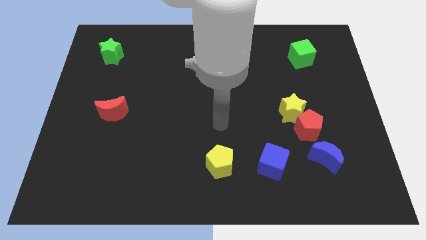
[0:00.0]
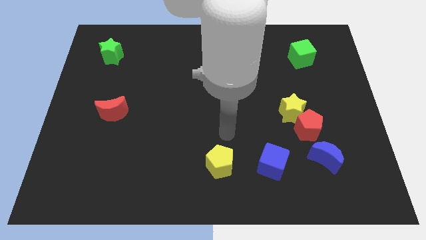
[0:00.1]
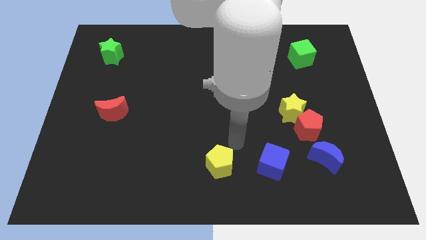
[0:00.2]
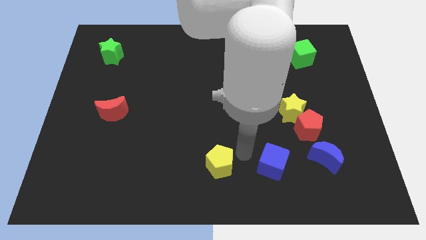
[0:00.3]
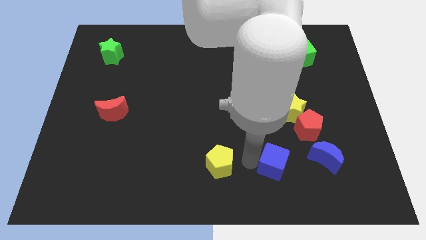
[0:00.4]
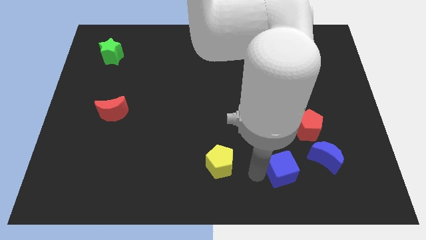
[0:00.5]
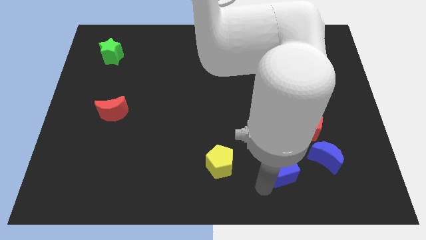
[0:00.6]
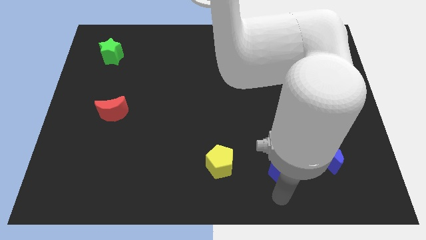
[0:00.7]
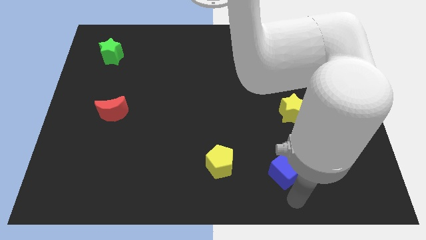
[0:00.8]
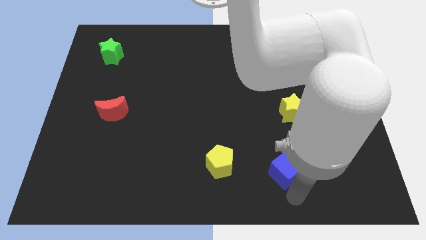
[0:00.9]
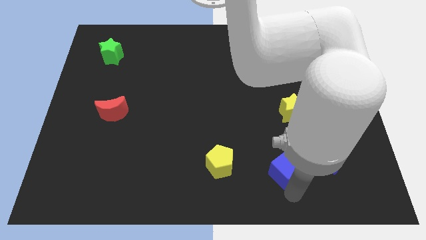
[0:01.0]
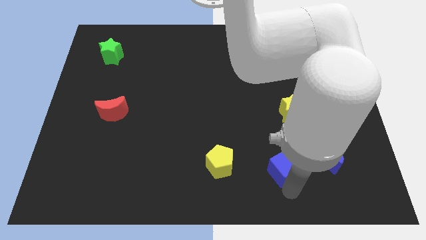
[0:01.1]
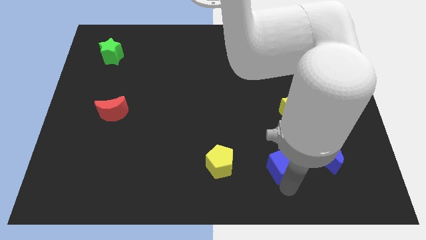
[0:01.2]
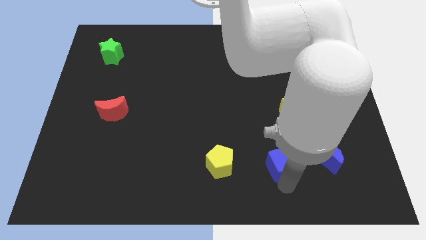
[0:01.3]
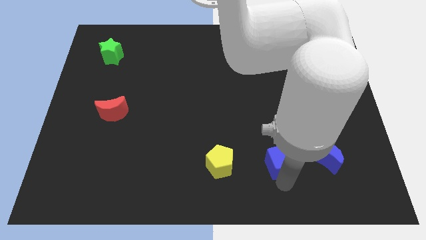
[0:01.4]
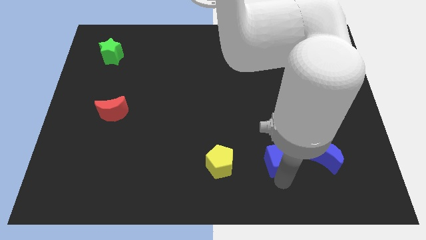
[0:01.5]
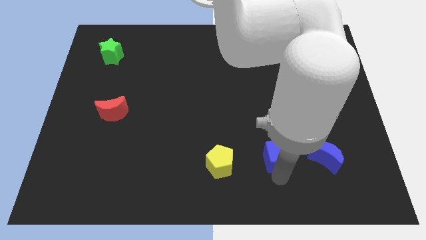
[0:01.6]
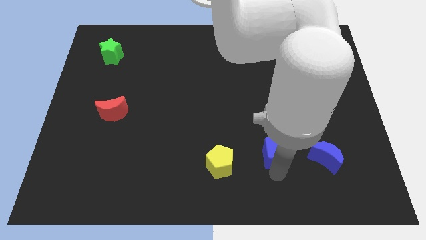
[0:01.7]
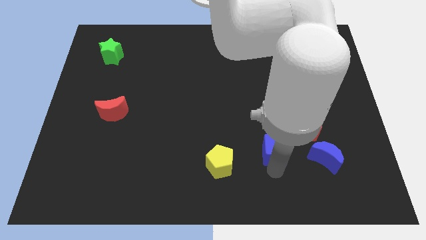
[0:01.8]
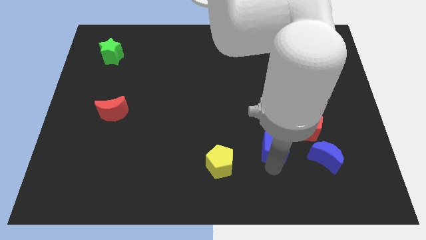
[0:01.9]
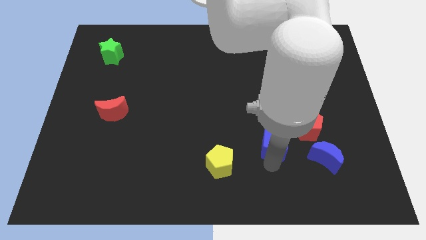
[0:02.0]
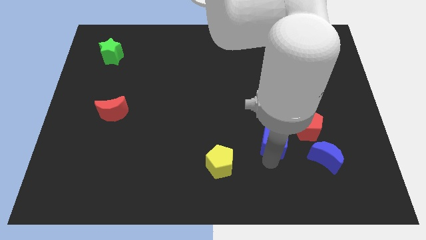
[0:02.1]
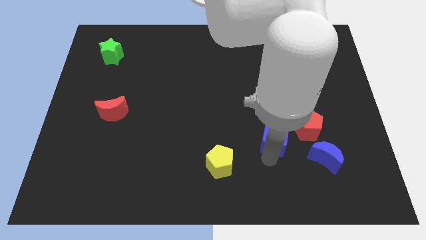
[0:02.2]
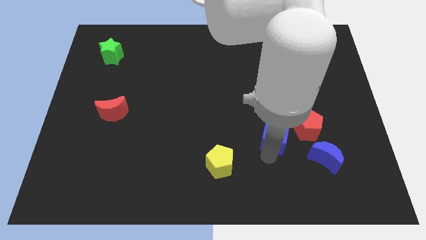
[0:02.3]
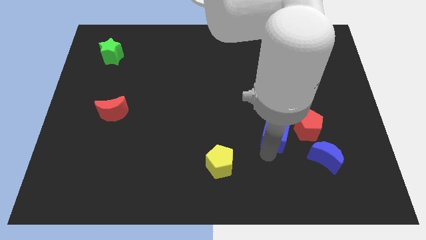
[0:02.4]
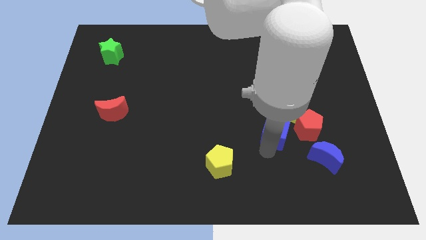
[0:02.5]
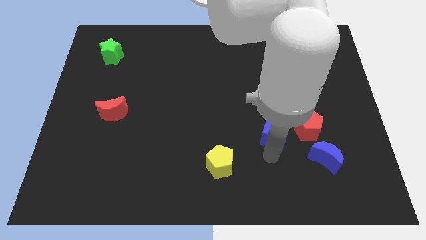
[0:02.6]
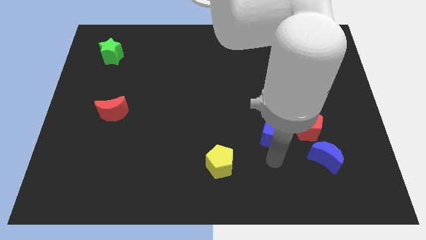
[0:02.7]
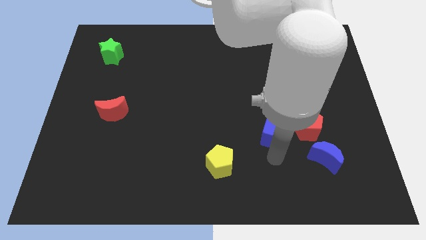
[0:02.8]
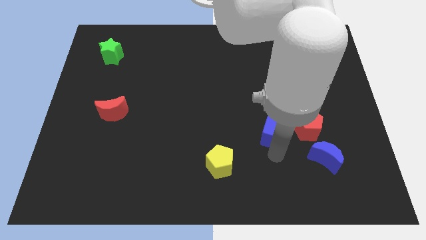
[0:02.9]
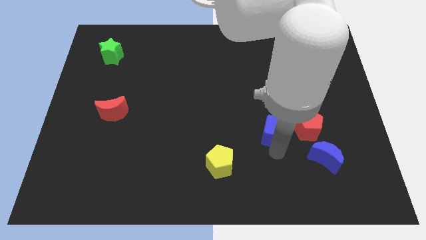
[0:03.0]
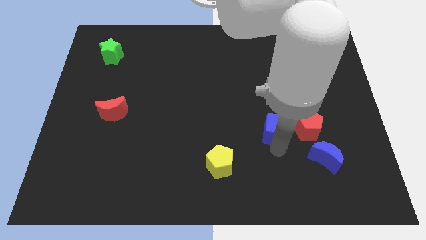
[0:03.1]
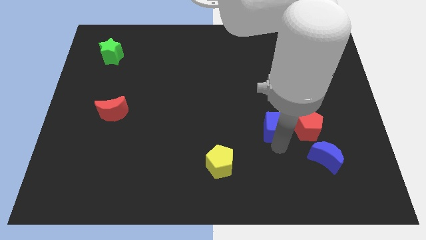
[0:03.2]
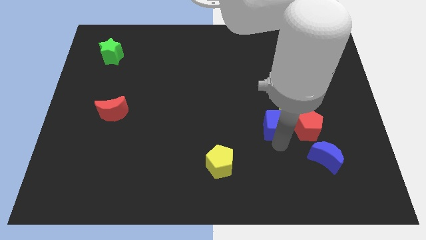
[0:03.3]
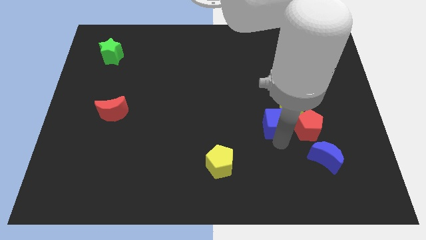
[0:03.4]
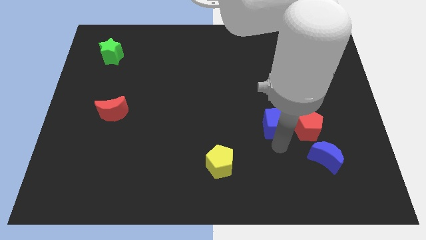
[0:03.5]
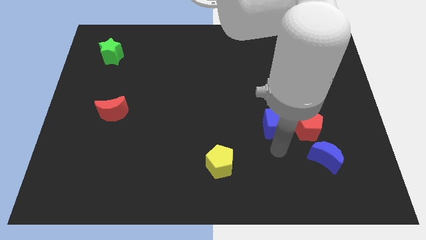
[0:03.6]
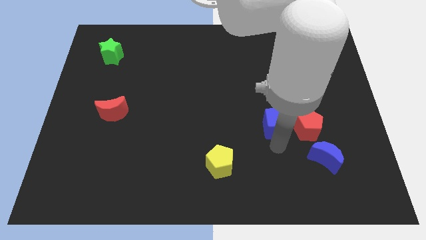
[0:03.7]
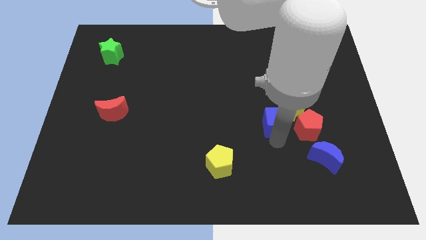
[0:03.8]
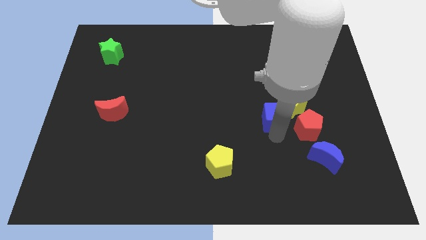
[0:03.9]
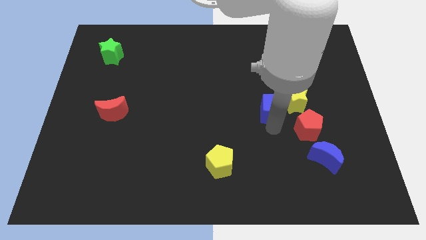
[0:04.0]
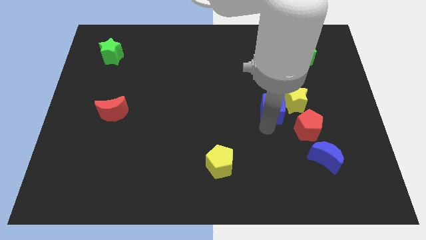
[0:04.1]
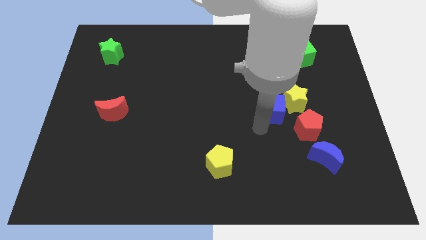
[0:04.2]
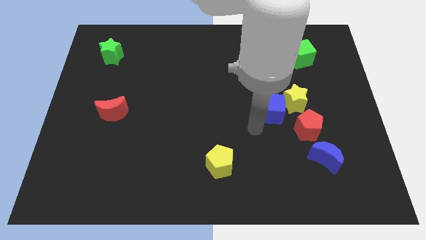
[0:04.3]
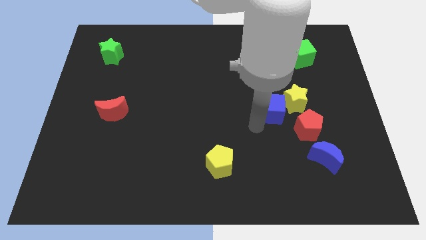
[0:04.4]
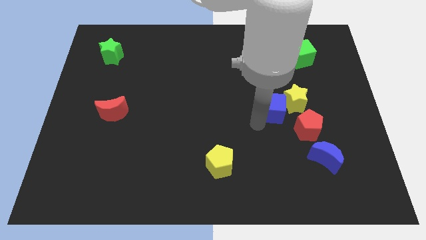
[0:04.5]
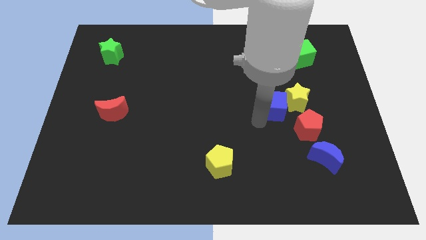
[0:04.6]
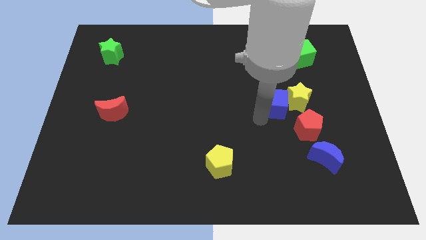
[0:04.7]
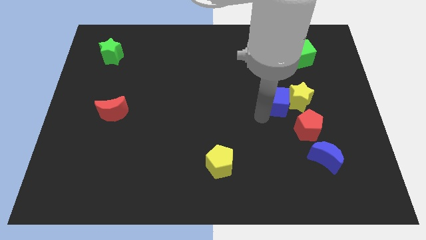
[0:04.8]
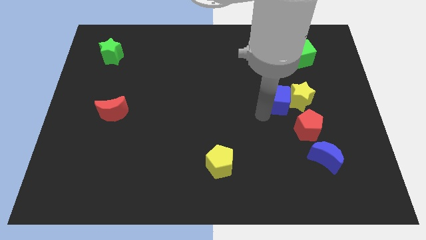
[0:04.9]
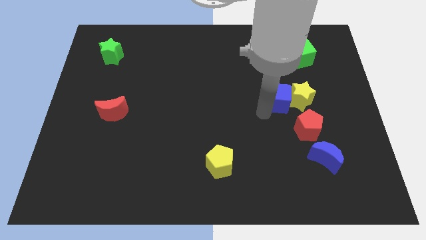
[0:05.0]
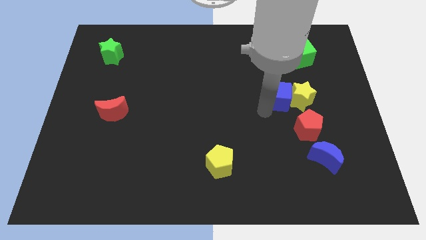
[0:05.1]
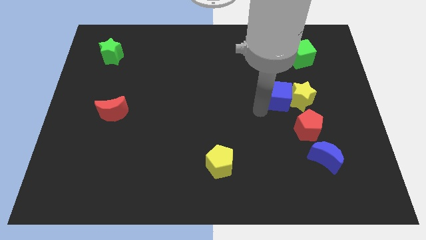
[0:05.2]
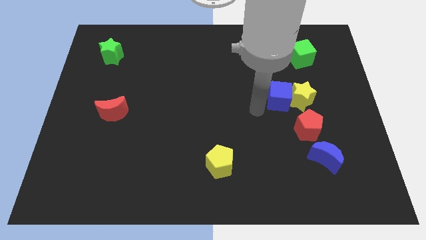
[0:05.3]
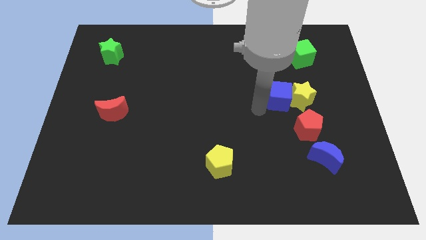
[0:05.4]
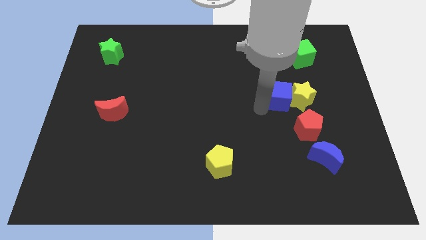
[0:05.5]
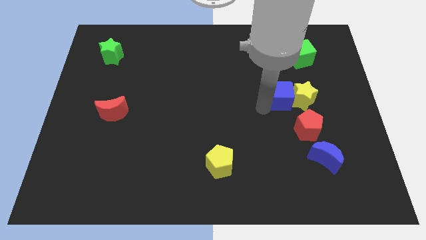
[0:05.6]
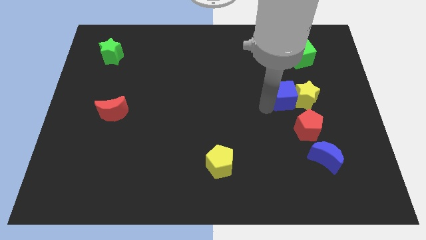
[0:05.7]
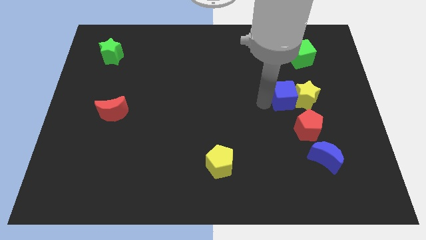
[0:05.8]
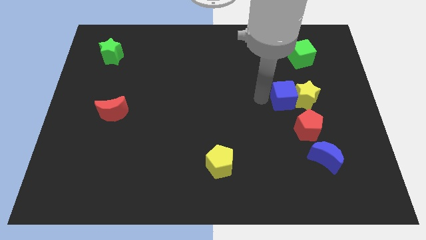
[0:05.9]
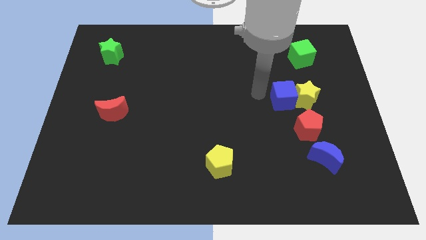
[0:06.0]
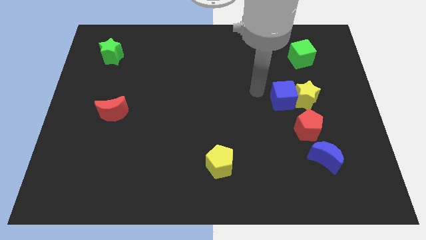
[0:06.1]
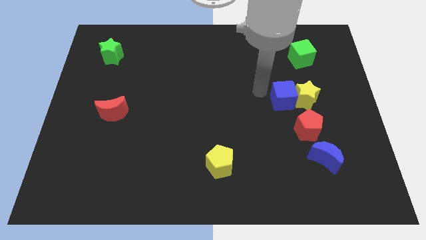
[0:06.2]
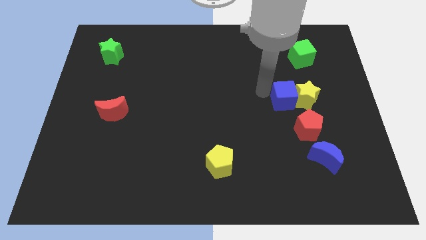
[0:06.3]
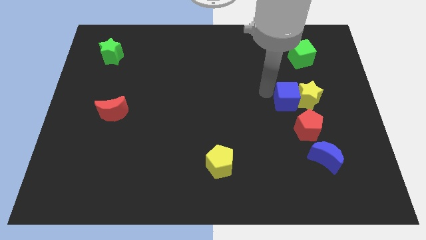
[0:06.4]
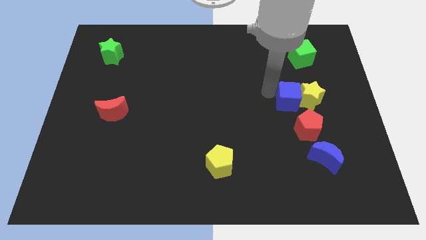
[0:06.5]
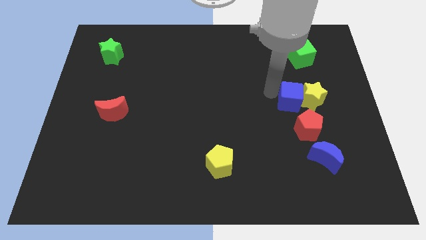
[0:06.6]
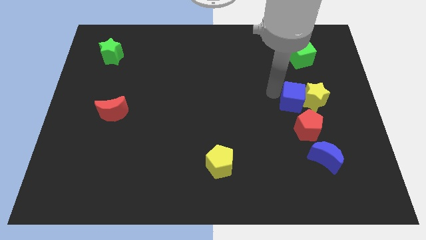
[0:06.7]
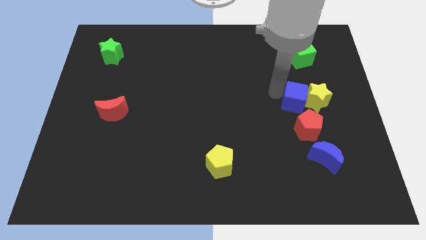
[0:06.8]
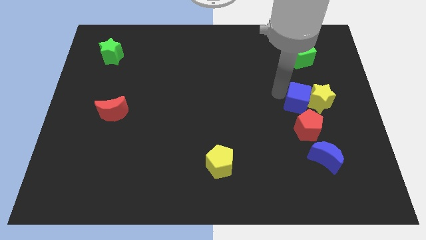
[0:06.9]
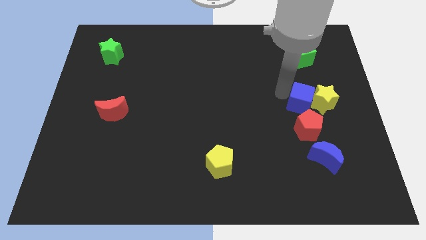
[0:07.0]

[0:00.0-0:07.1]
slide the blue cube to the top of the blue moon
